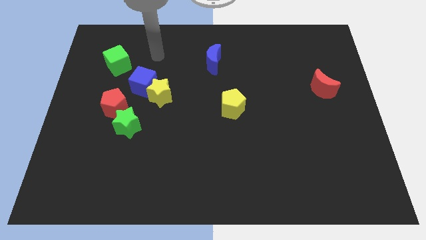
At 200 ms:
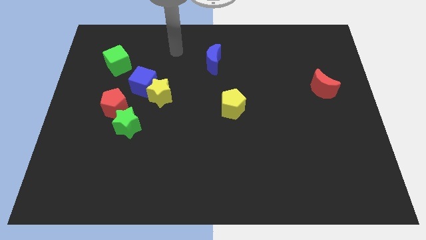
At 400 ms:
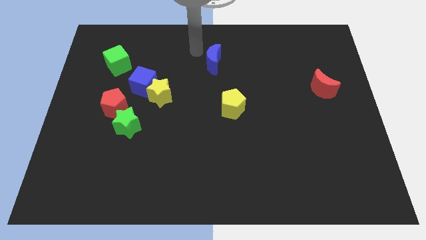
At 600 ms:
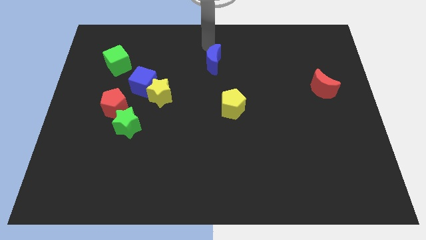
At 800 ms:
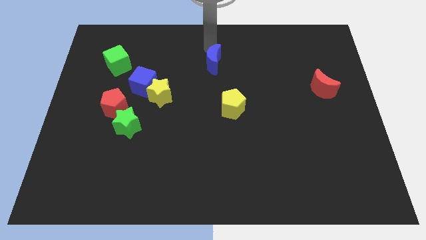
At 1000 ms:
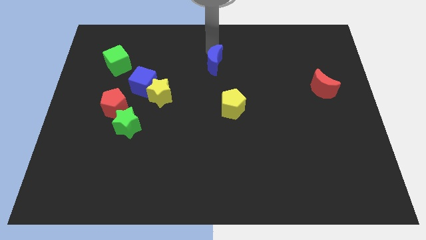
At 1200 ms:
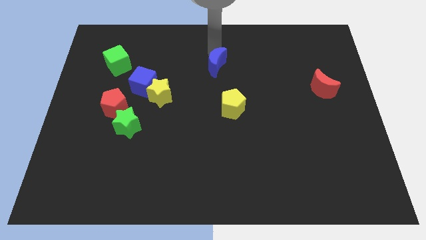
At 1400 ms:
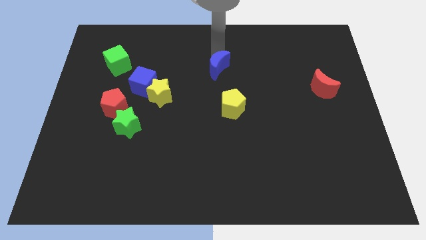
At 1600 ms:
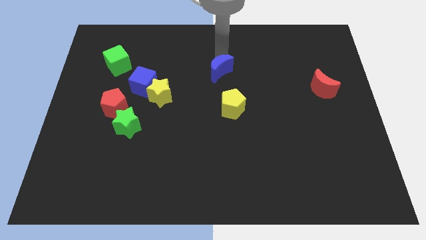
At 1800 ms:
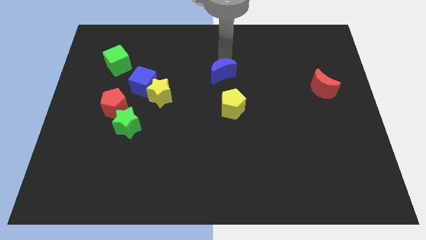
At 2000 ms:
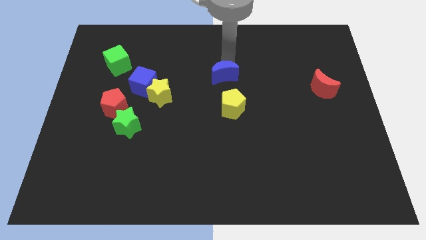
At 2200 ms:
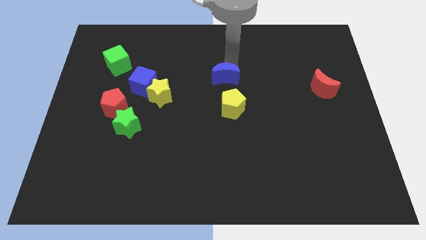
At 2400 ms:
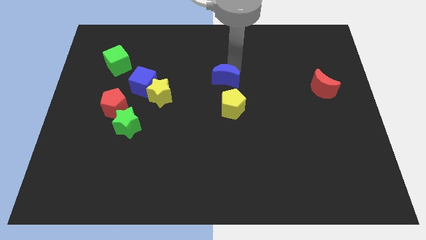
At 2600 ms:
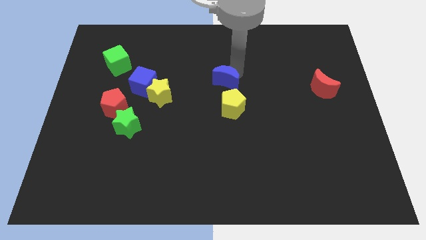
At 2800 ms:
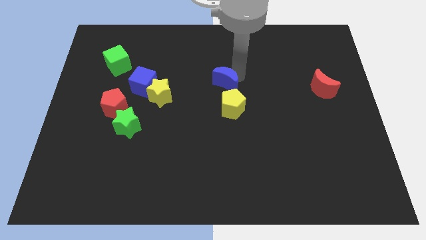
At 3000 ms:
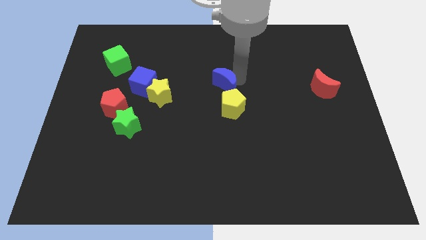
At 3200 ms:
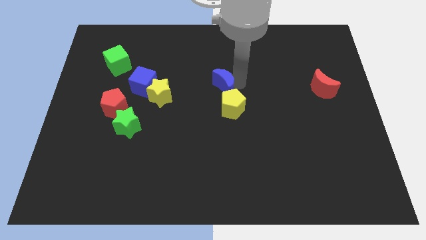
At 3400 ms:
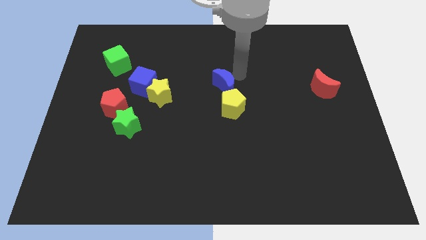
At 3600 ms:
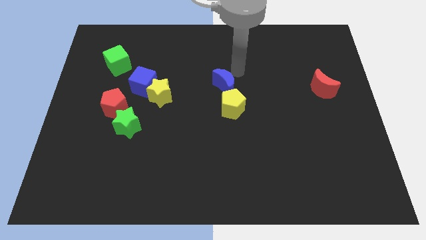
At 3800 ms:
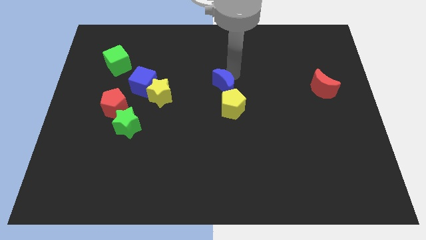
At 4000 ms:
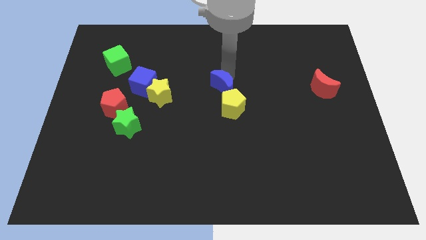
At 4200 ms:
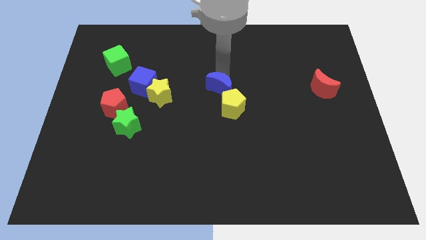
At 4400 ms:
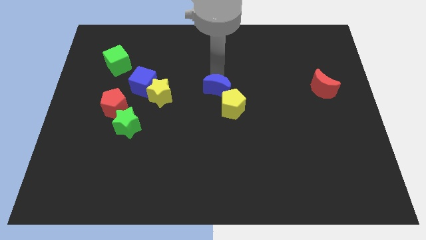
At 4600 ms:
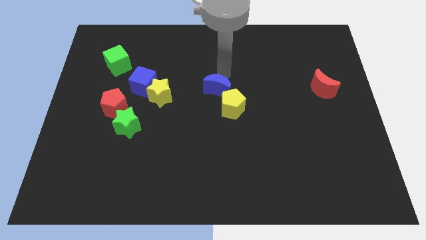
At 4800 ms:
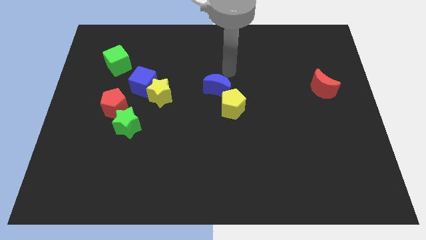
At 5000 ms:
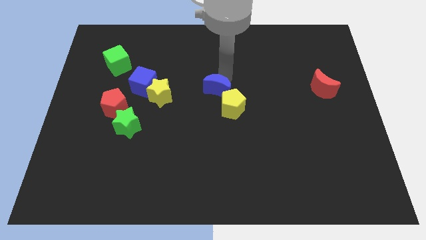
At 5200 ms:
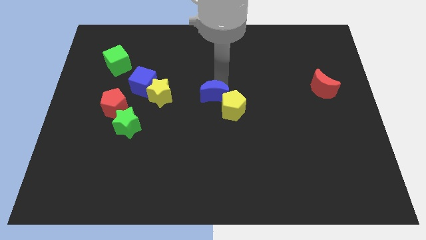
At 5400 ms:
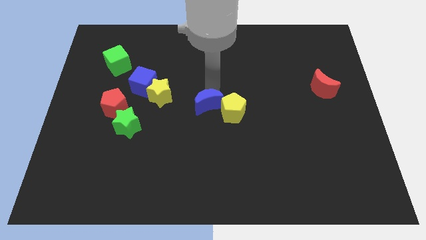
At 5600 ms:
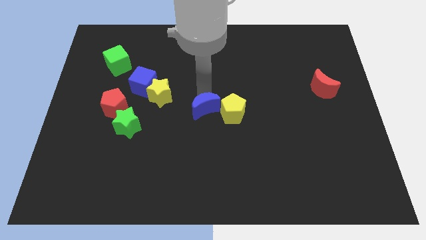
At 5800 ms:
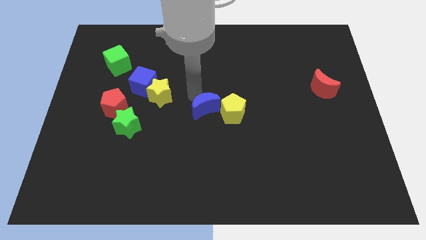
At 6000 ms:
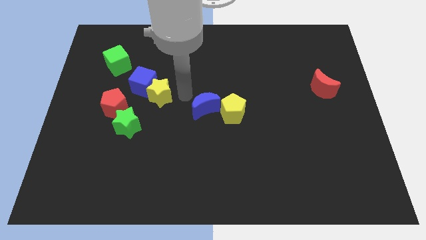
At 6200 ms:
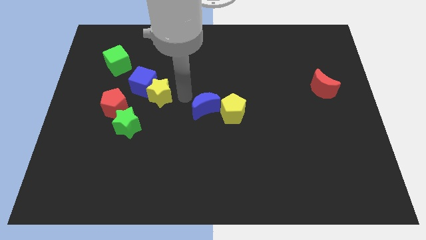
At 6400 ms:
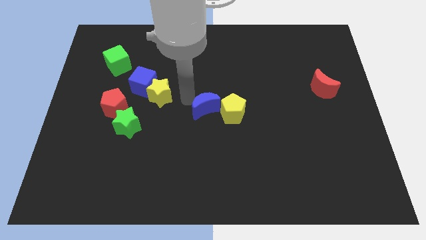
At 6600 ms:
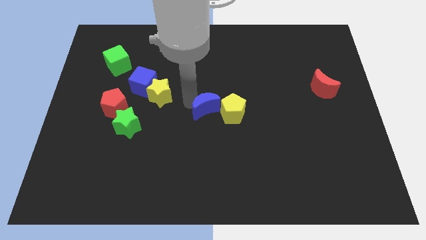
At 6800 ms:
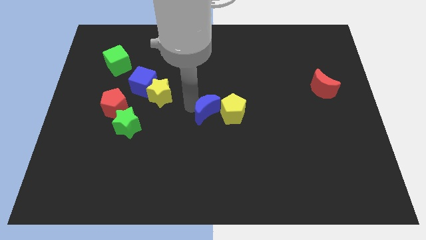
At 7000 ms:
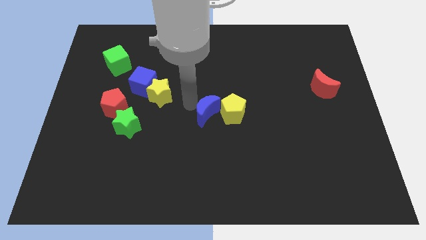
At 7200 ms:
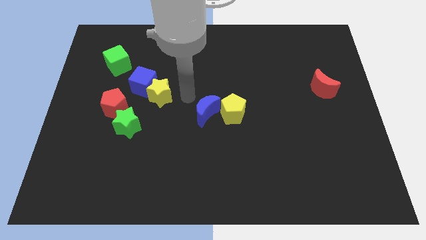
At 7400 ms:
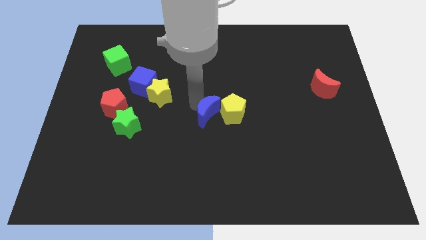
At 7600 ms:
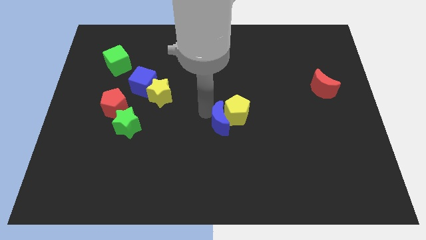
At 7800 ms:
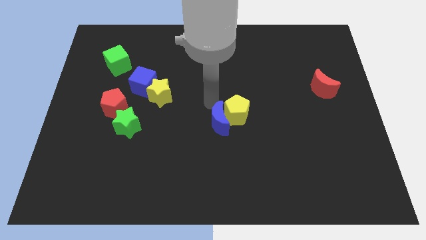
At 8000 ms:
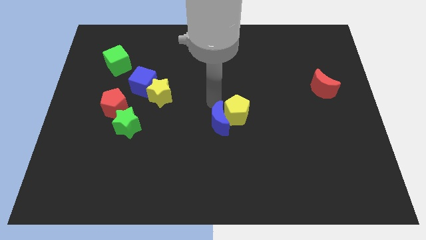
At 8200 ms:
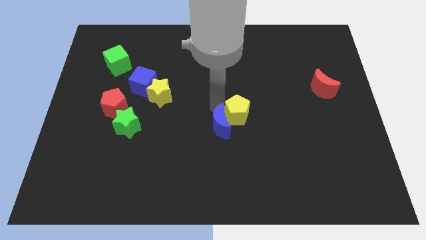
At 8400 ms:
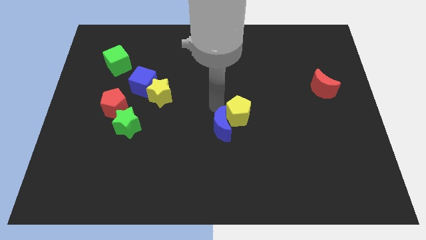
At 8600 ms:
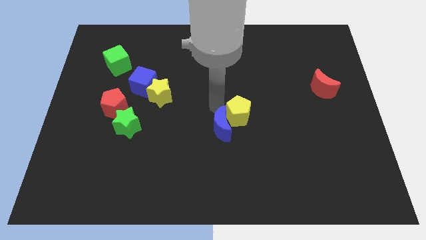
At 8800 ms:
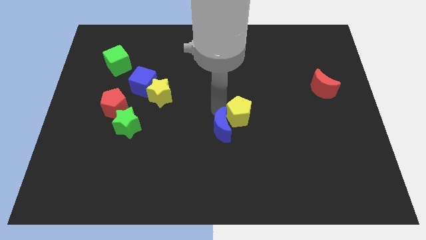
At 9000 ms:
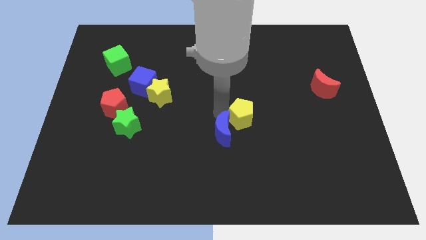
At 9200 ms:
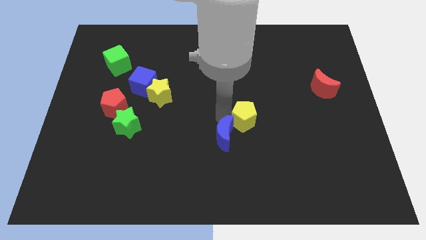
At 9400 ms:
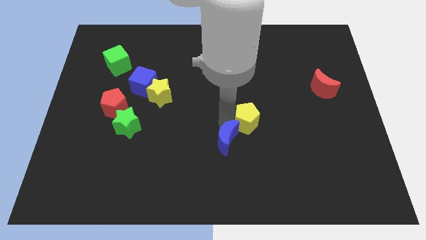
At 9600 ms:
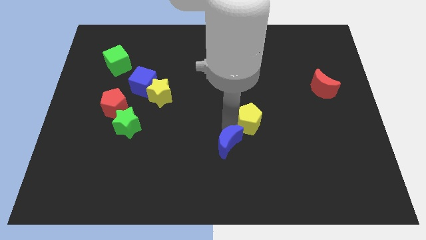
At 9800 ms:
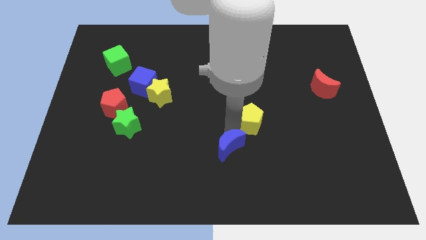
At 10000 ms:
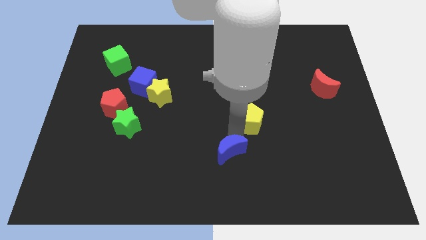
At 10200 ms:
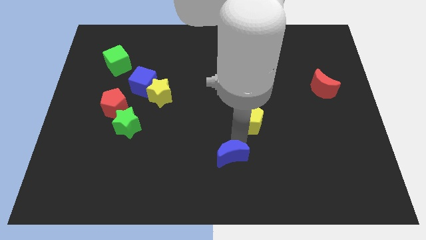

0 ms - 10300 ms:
move the blue moon to the bottom side

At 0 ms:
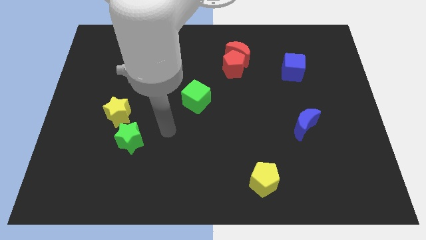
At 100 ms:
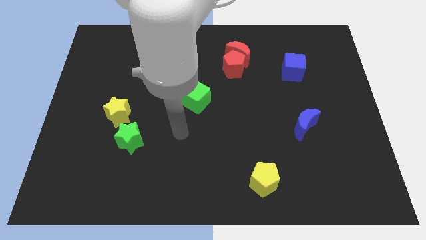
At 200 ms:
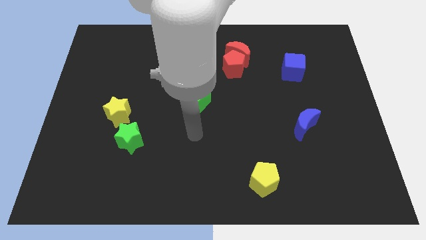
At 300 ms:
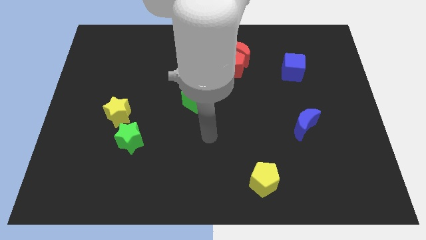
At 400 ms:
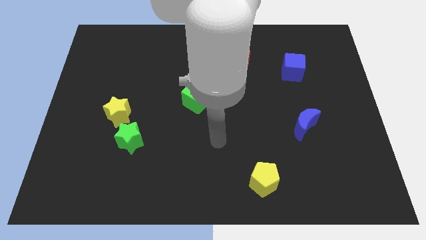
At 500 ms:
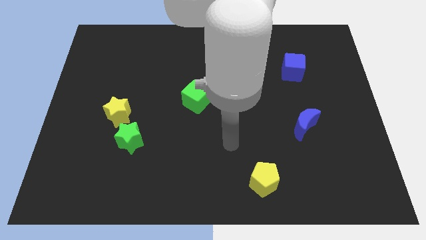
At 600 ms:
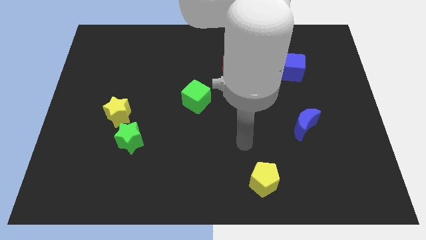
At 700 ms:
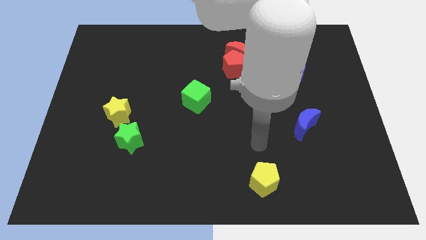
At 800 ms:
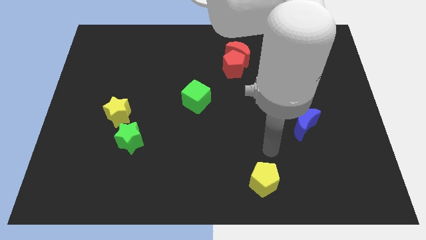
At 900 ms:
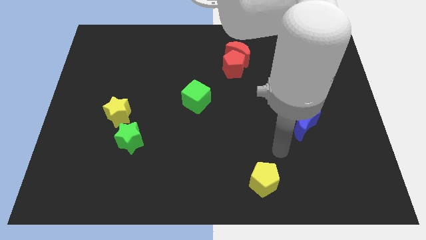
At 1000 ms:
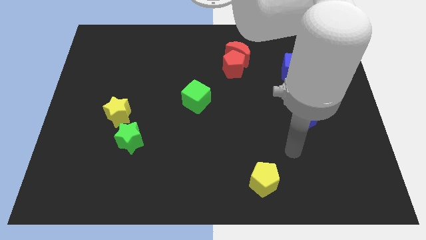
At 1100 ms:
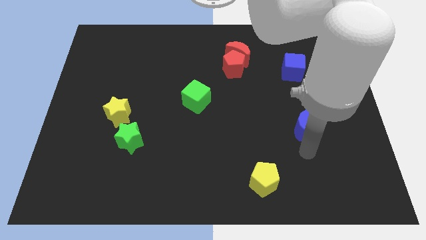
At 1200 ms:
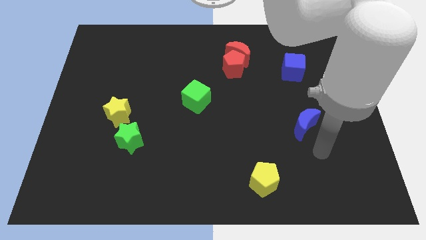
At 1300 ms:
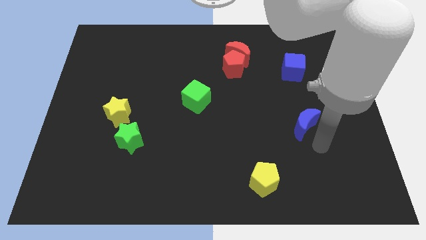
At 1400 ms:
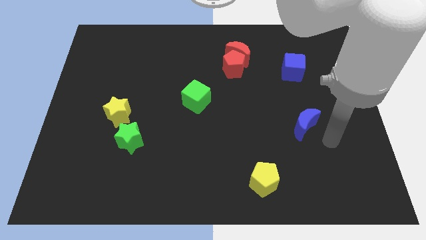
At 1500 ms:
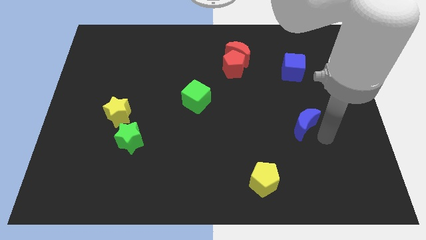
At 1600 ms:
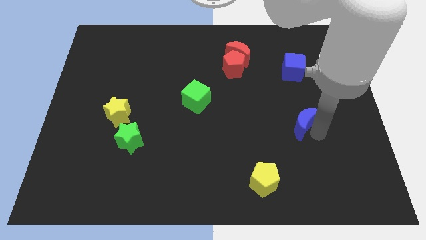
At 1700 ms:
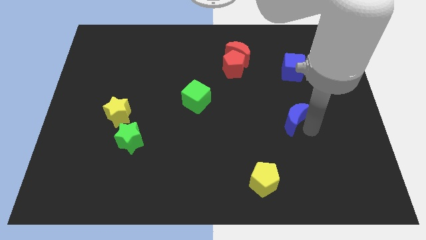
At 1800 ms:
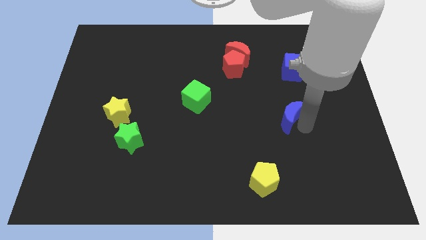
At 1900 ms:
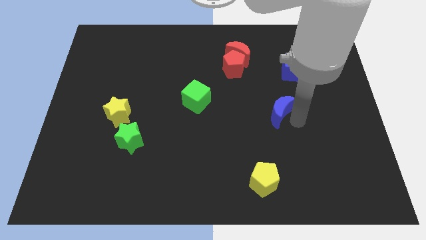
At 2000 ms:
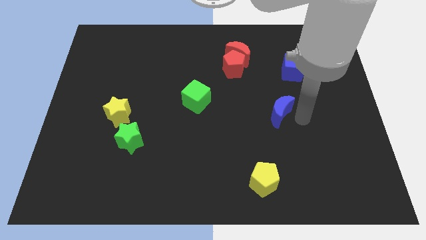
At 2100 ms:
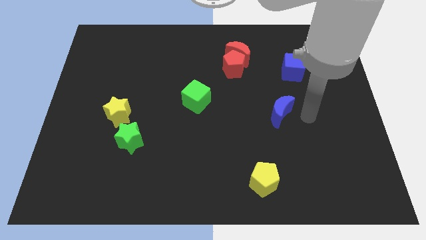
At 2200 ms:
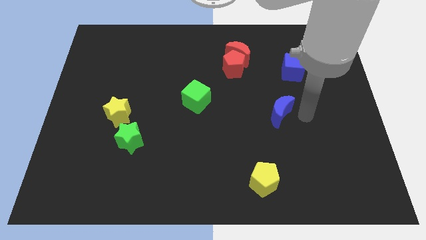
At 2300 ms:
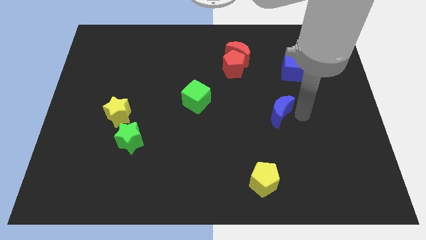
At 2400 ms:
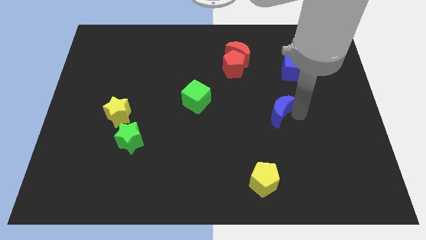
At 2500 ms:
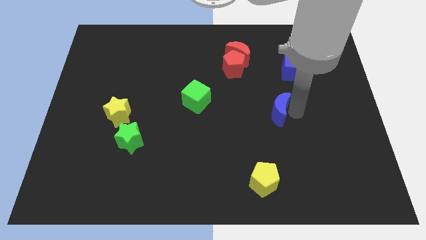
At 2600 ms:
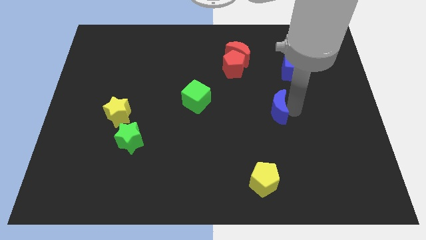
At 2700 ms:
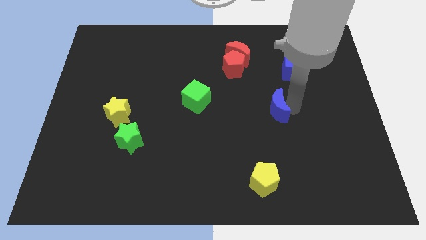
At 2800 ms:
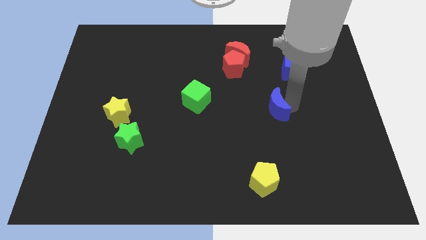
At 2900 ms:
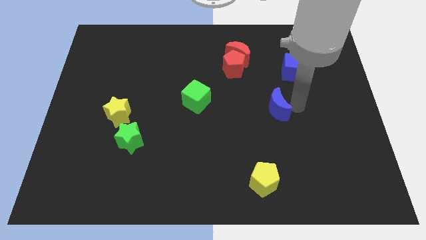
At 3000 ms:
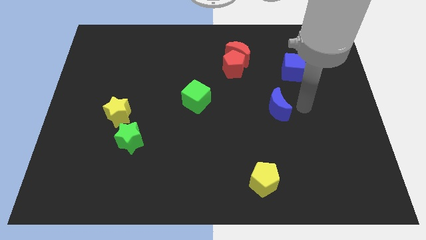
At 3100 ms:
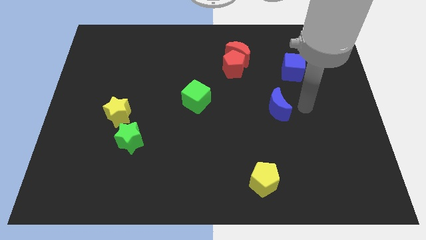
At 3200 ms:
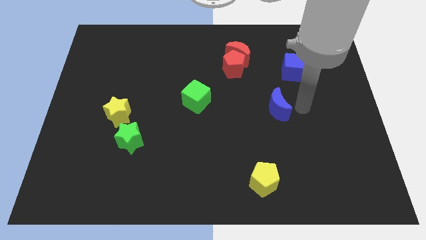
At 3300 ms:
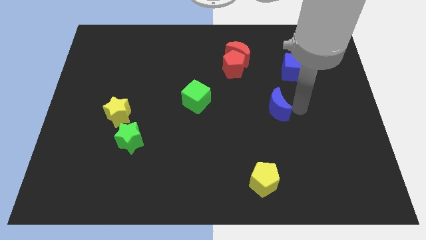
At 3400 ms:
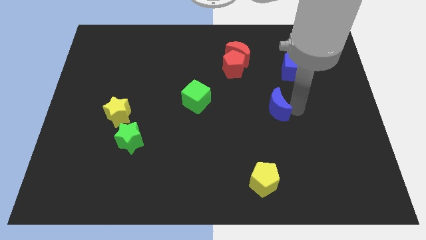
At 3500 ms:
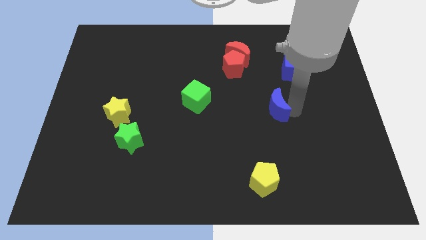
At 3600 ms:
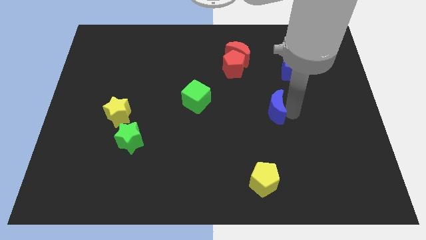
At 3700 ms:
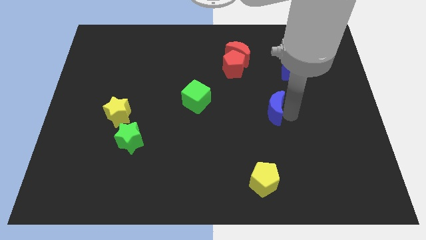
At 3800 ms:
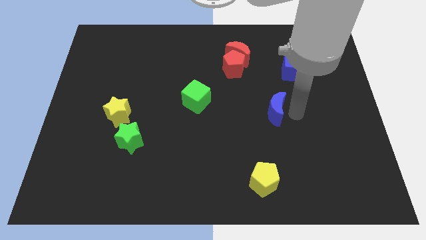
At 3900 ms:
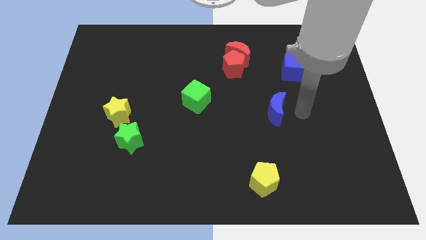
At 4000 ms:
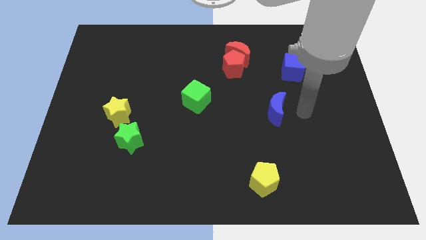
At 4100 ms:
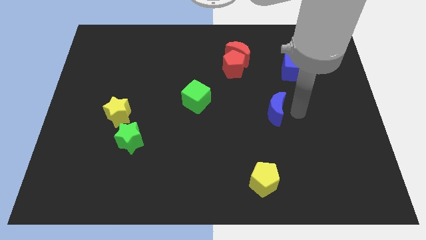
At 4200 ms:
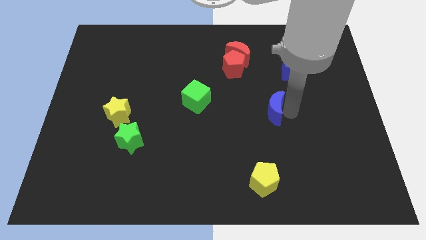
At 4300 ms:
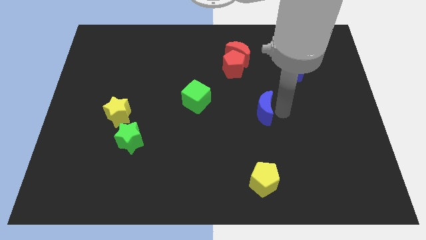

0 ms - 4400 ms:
move the blue moon to the middle
